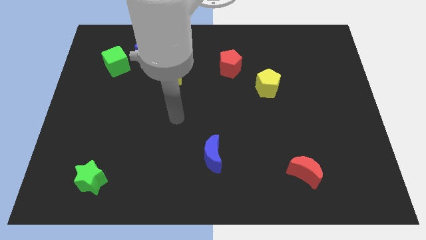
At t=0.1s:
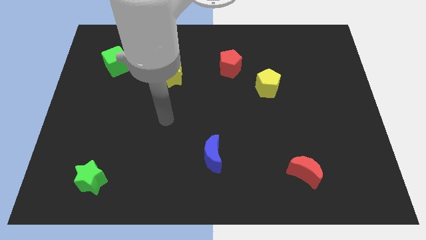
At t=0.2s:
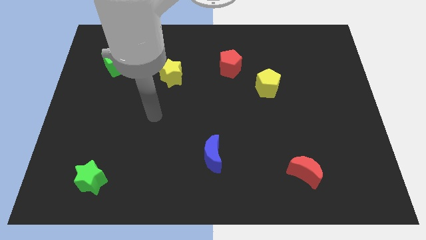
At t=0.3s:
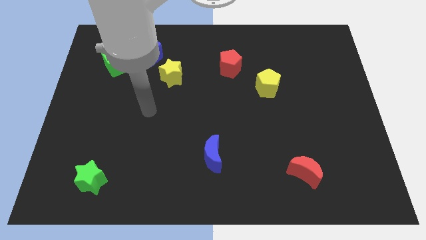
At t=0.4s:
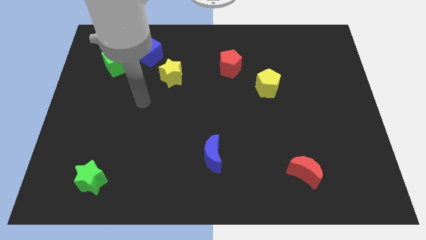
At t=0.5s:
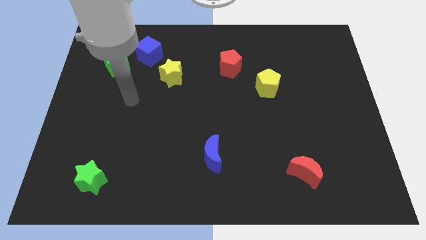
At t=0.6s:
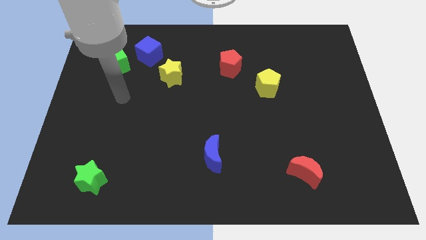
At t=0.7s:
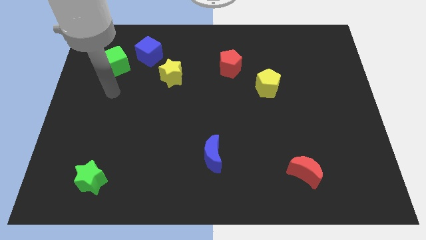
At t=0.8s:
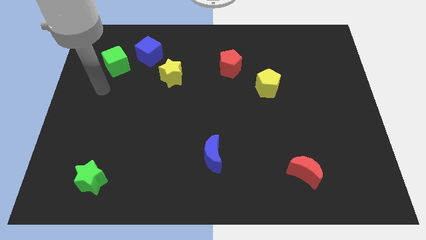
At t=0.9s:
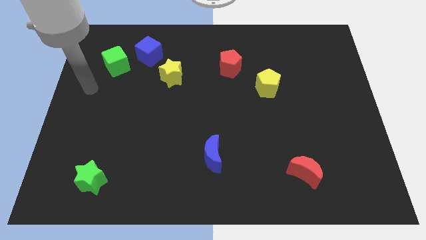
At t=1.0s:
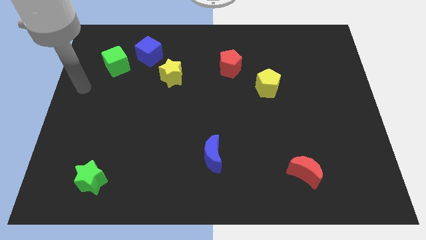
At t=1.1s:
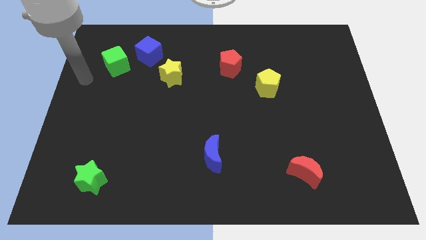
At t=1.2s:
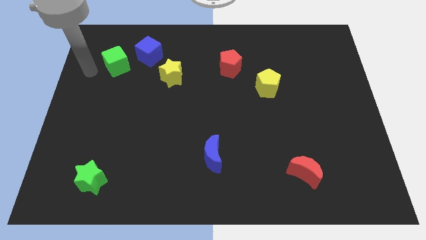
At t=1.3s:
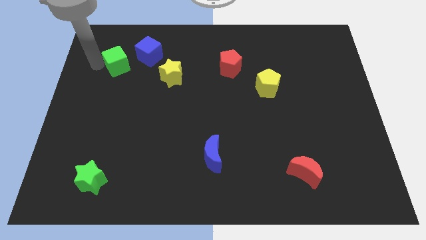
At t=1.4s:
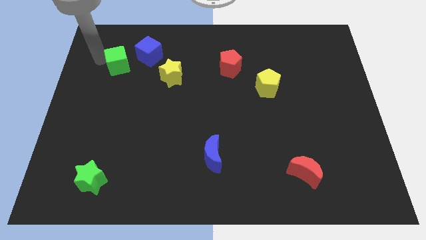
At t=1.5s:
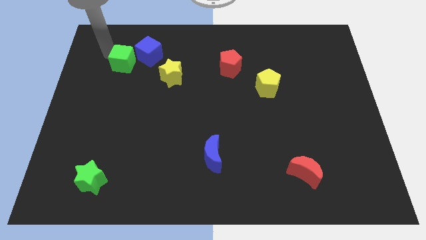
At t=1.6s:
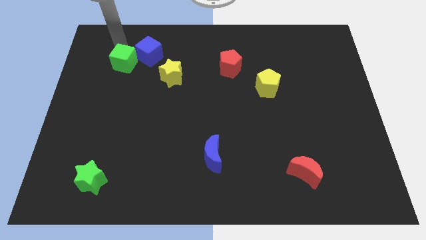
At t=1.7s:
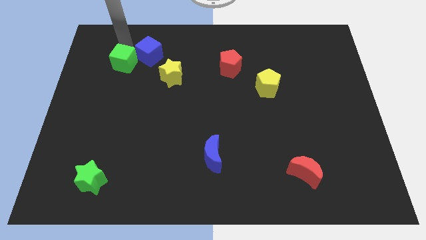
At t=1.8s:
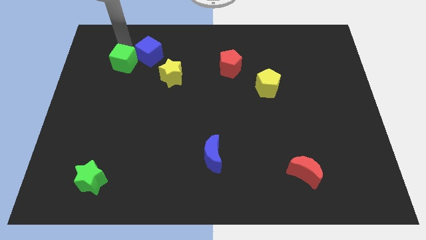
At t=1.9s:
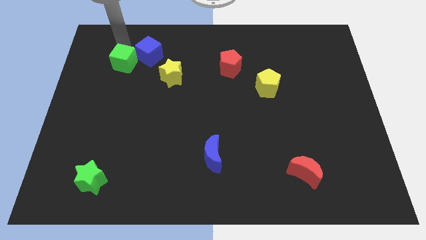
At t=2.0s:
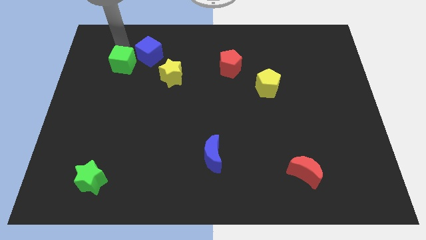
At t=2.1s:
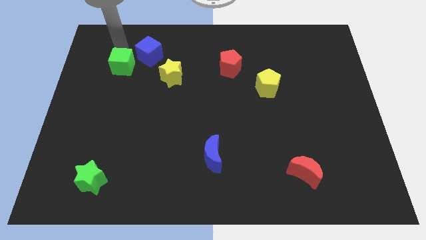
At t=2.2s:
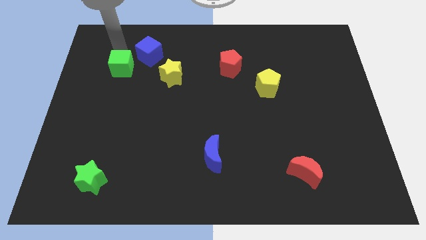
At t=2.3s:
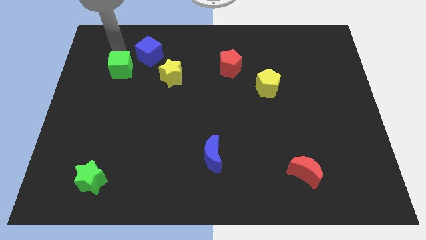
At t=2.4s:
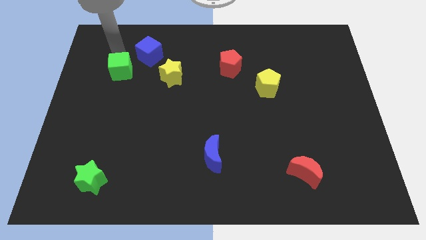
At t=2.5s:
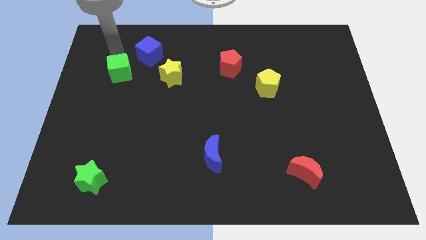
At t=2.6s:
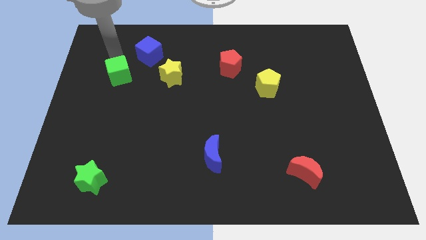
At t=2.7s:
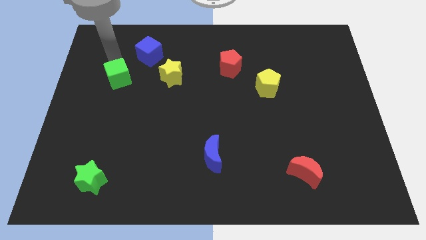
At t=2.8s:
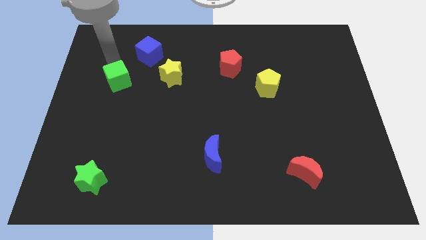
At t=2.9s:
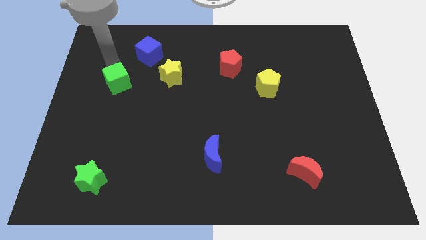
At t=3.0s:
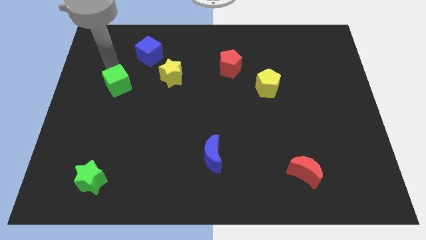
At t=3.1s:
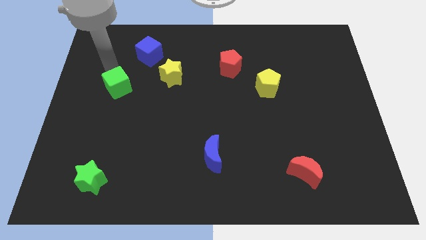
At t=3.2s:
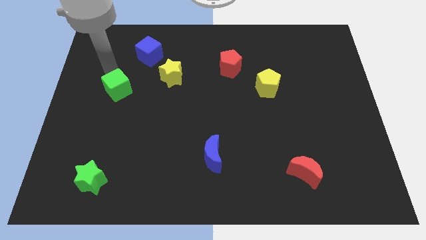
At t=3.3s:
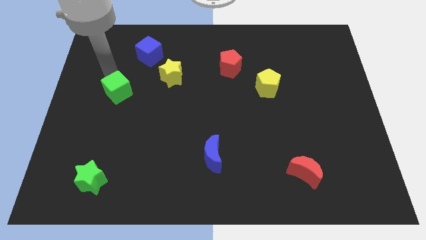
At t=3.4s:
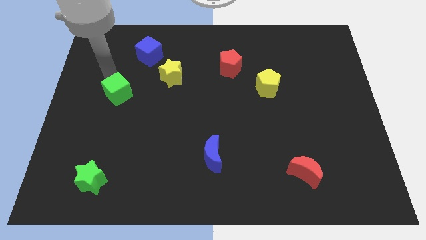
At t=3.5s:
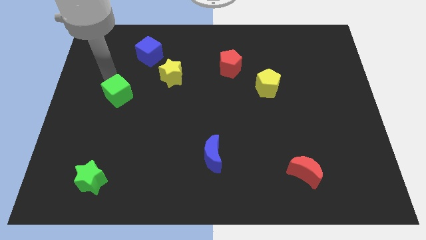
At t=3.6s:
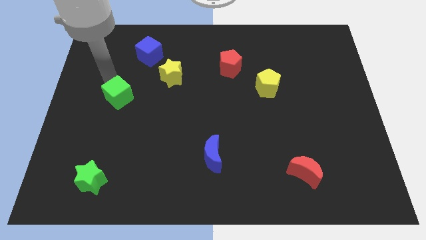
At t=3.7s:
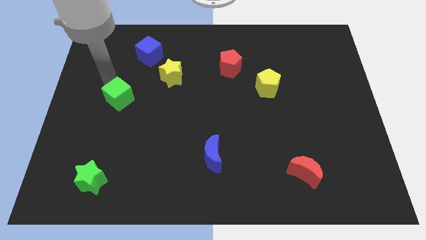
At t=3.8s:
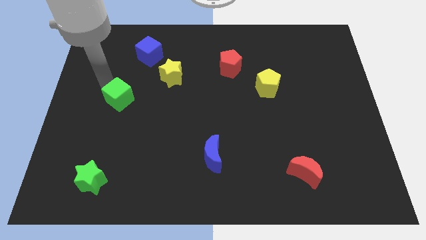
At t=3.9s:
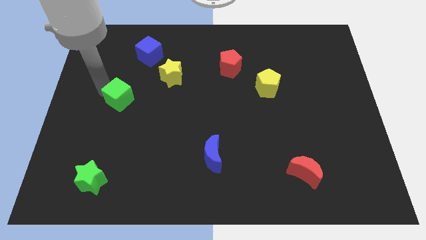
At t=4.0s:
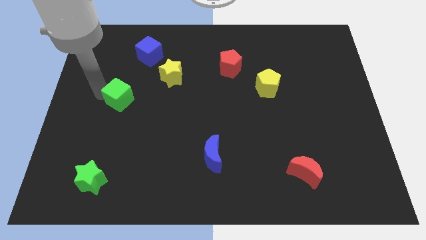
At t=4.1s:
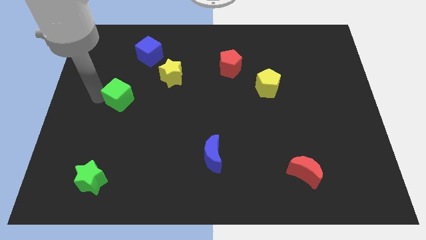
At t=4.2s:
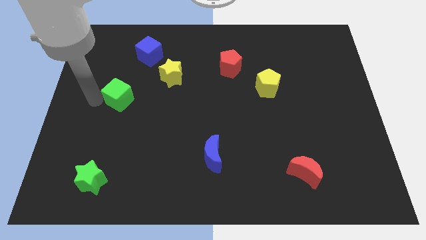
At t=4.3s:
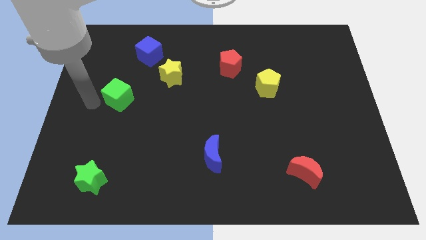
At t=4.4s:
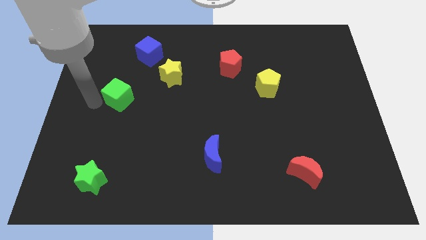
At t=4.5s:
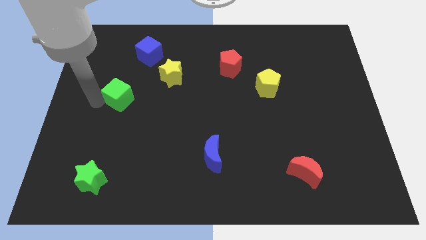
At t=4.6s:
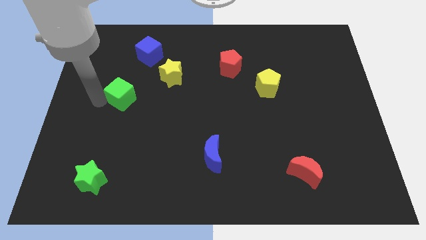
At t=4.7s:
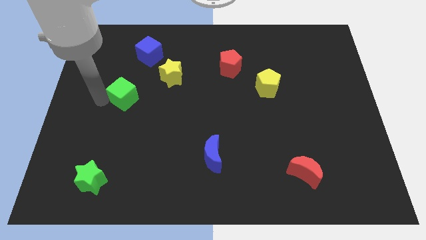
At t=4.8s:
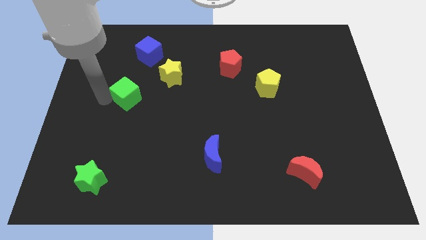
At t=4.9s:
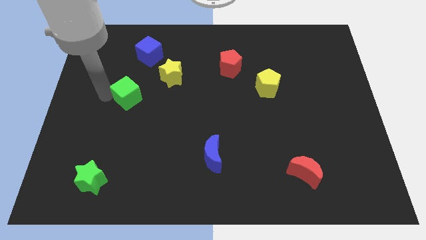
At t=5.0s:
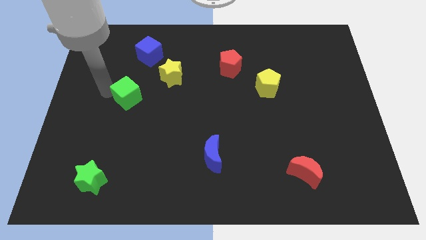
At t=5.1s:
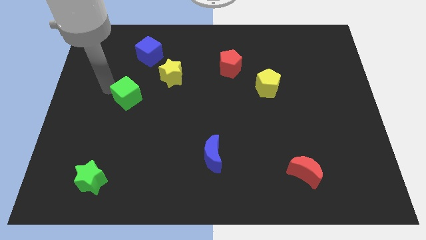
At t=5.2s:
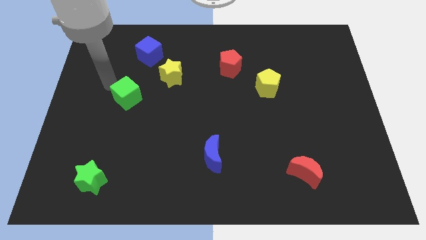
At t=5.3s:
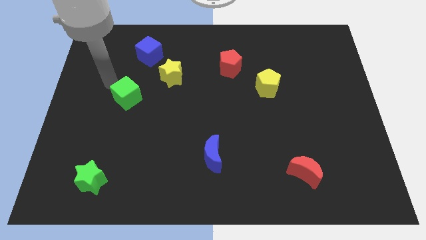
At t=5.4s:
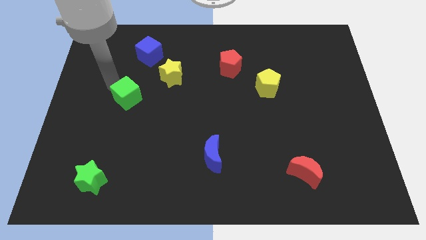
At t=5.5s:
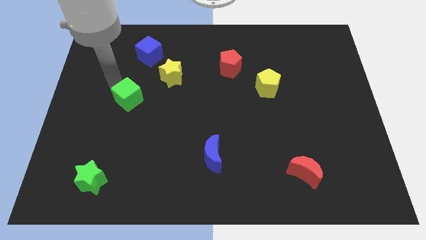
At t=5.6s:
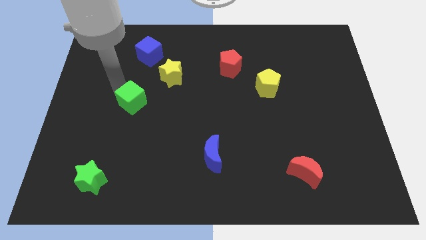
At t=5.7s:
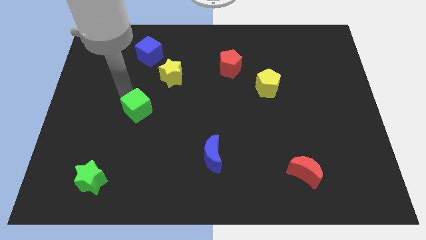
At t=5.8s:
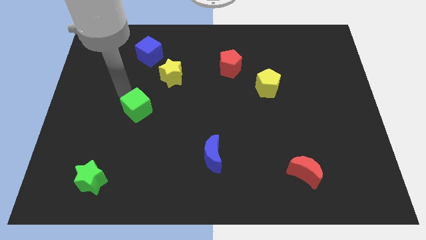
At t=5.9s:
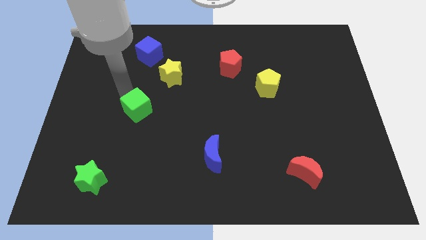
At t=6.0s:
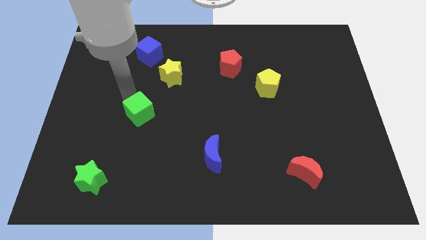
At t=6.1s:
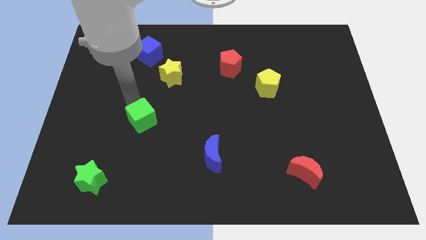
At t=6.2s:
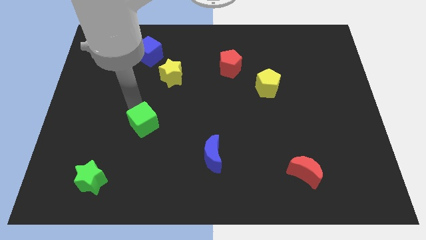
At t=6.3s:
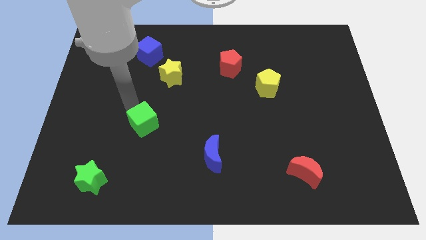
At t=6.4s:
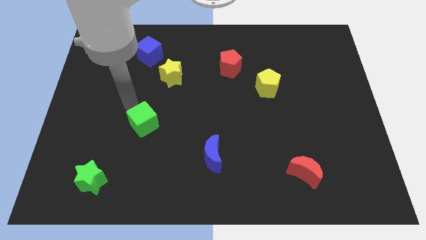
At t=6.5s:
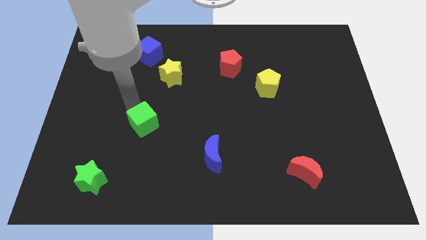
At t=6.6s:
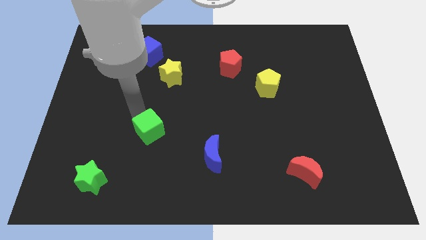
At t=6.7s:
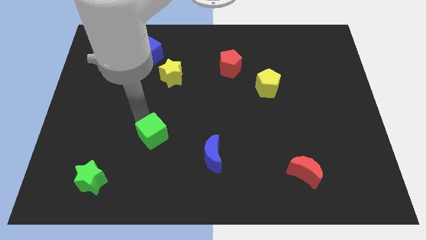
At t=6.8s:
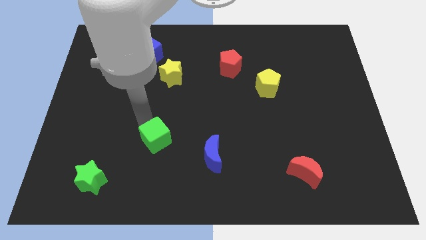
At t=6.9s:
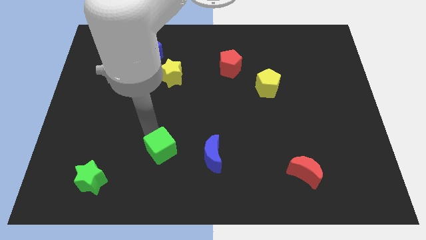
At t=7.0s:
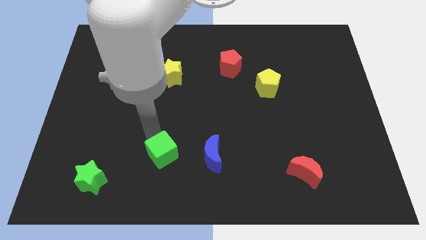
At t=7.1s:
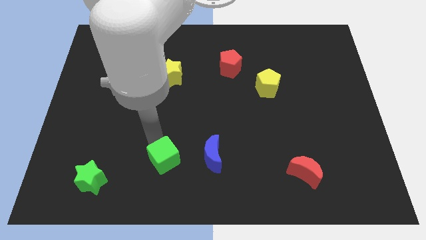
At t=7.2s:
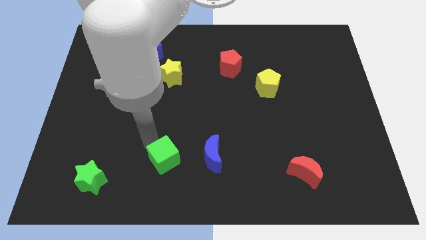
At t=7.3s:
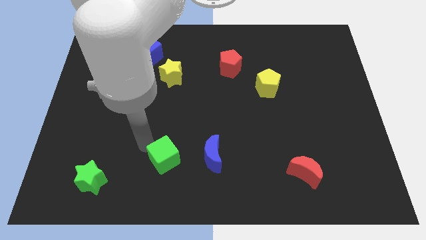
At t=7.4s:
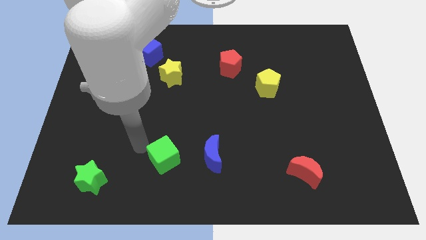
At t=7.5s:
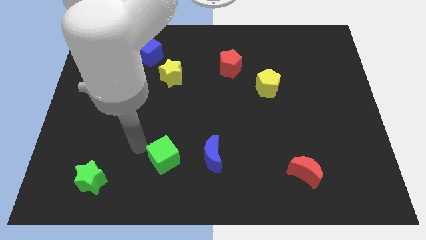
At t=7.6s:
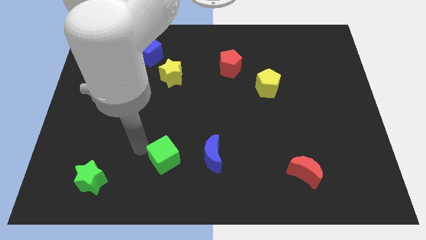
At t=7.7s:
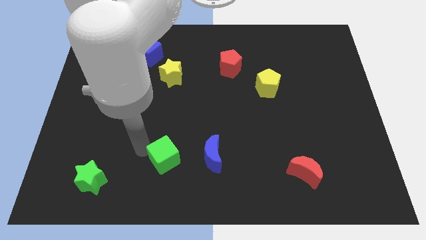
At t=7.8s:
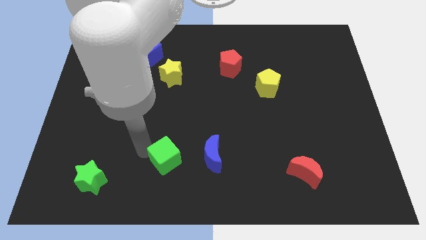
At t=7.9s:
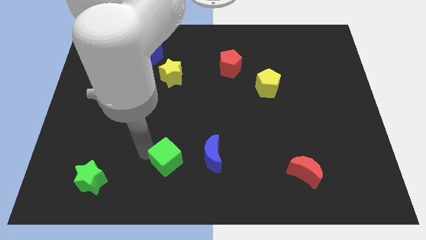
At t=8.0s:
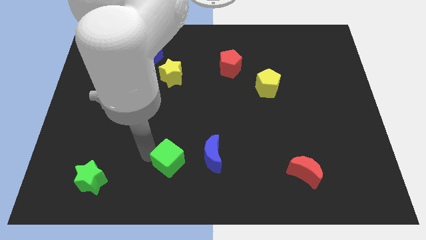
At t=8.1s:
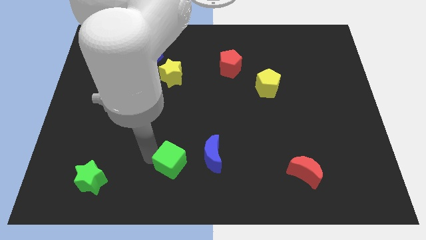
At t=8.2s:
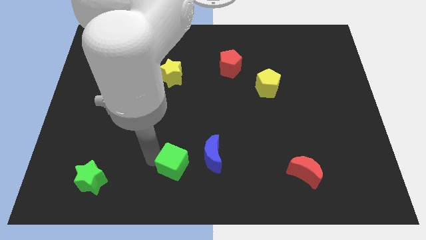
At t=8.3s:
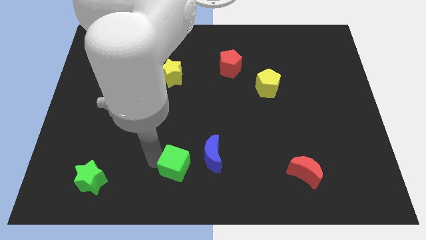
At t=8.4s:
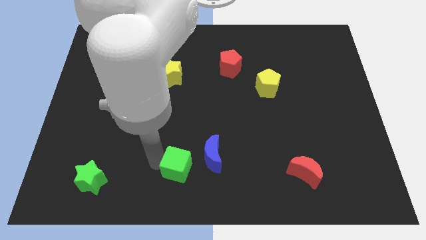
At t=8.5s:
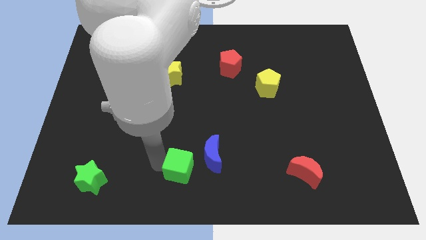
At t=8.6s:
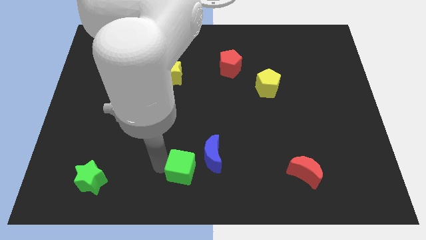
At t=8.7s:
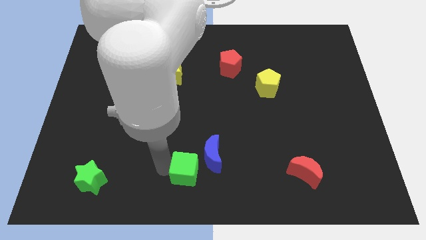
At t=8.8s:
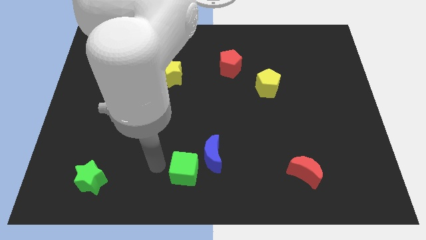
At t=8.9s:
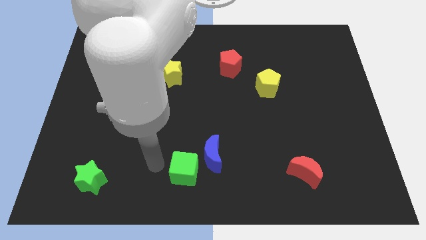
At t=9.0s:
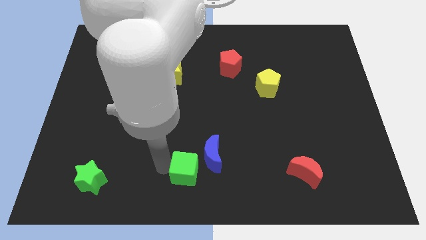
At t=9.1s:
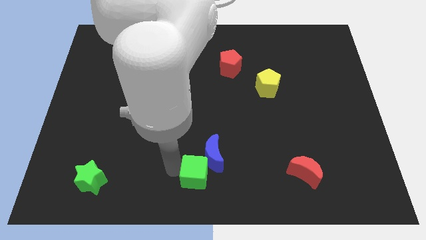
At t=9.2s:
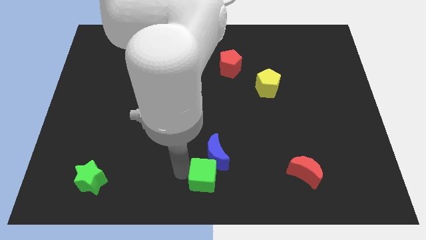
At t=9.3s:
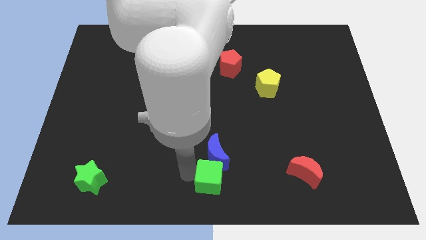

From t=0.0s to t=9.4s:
move the green cube diagonally down and to the right of the blue moon
